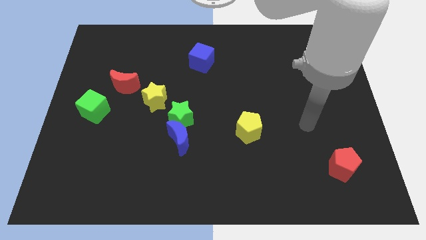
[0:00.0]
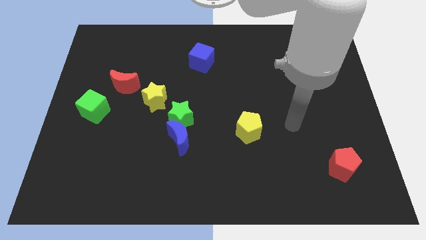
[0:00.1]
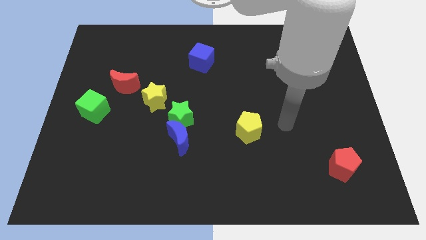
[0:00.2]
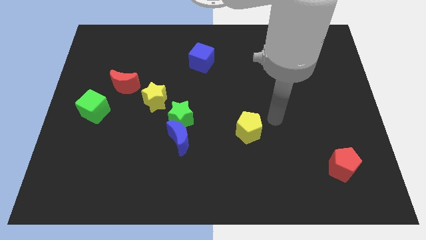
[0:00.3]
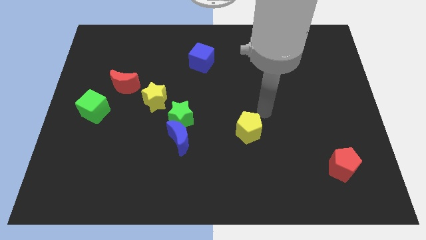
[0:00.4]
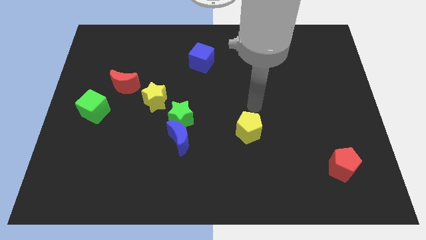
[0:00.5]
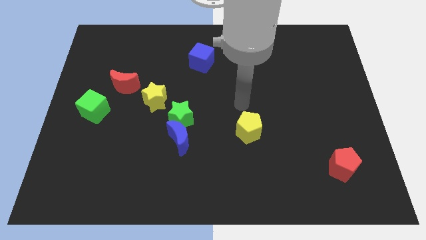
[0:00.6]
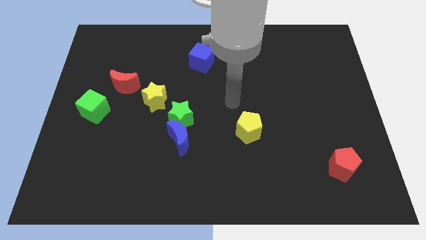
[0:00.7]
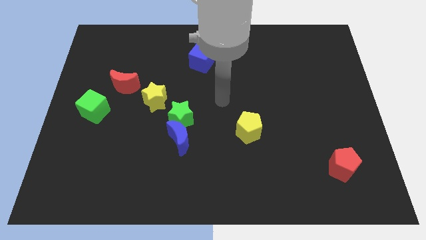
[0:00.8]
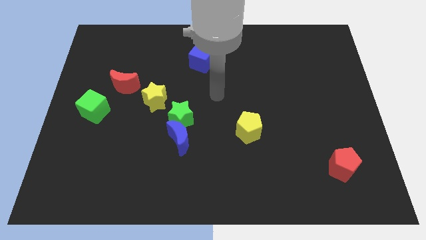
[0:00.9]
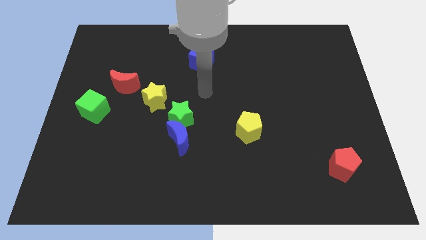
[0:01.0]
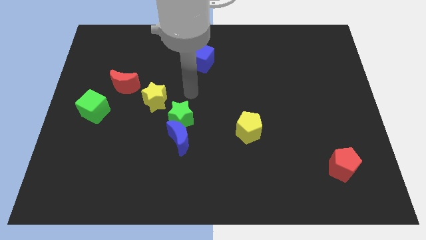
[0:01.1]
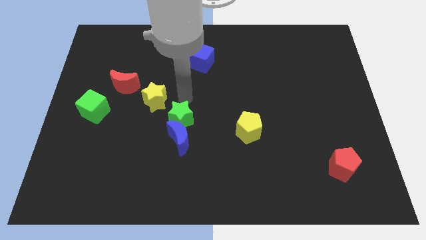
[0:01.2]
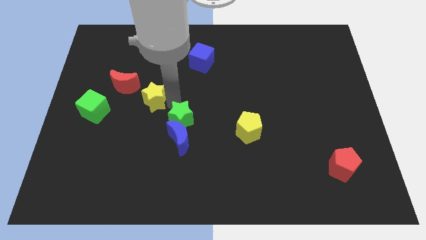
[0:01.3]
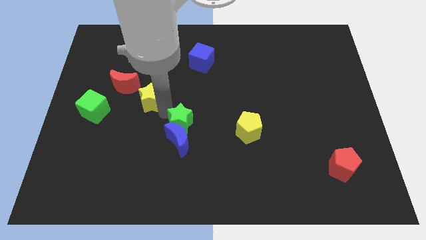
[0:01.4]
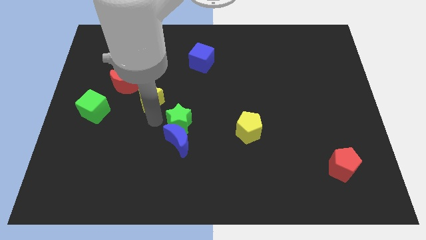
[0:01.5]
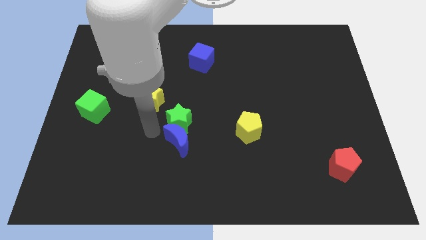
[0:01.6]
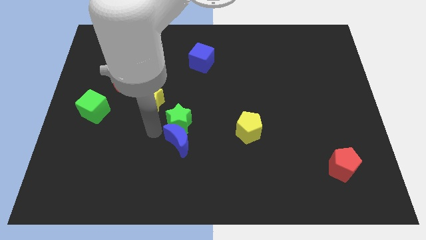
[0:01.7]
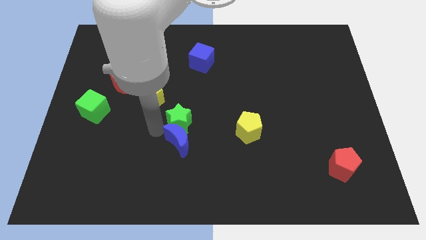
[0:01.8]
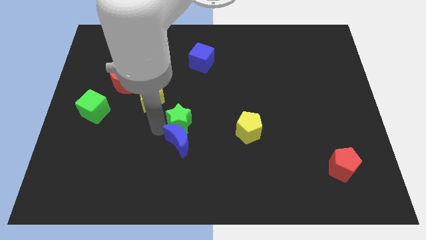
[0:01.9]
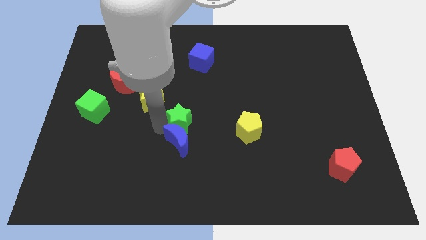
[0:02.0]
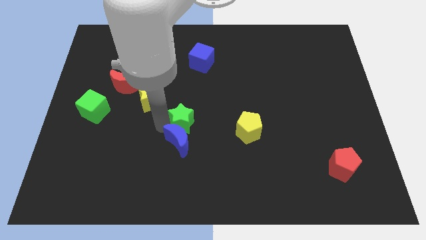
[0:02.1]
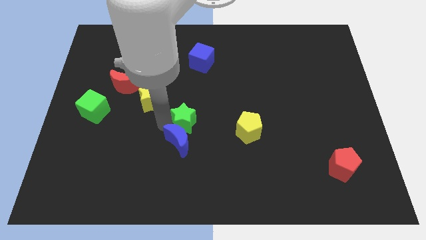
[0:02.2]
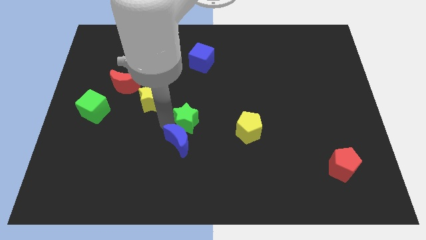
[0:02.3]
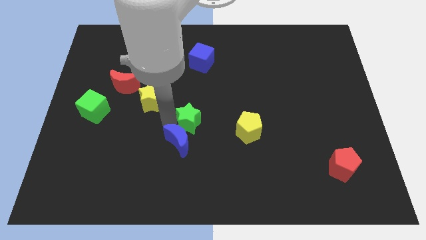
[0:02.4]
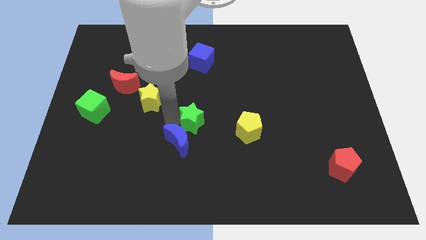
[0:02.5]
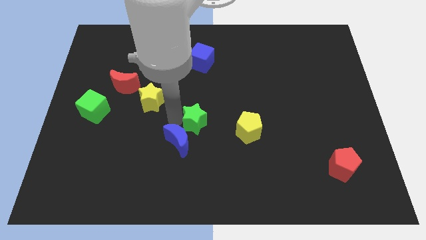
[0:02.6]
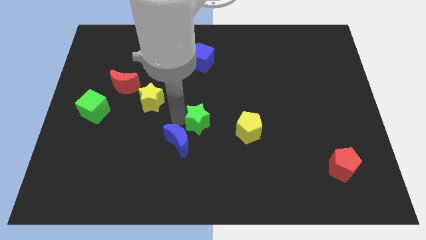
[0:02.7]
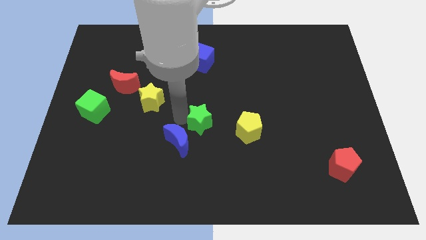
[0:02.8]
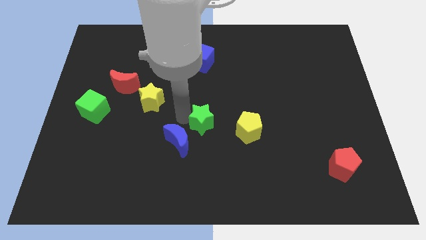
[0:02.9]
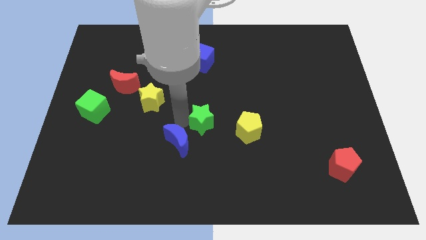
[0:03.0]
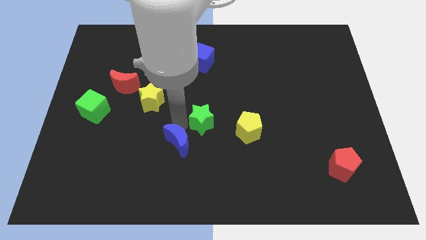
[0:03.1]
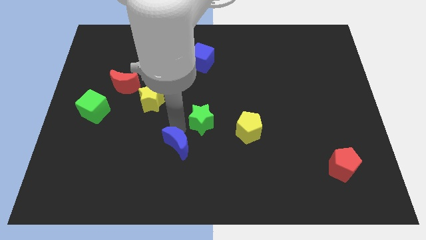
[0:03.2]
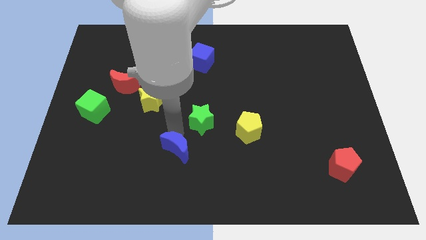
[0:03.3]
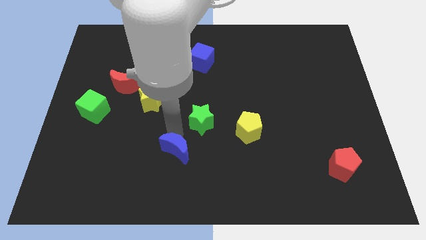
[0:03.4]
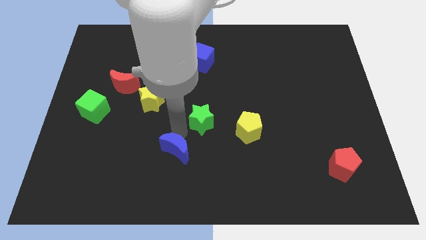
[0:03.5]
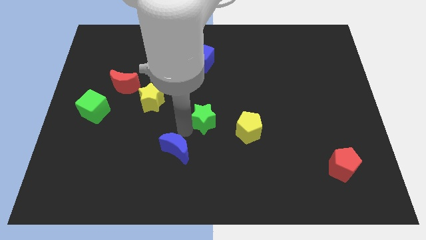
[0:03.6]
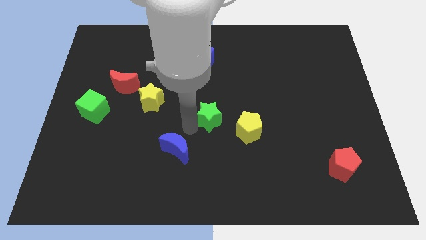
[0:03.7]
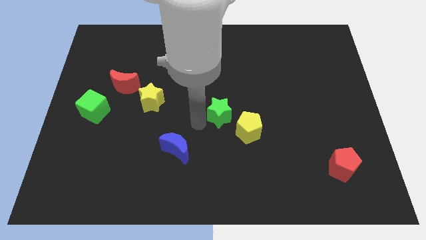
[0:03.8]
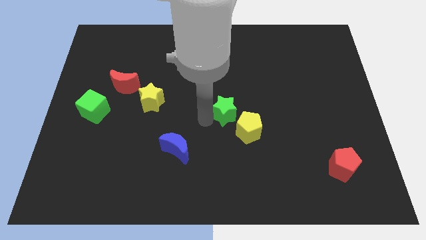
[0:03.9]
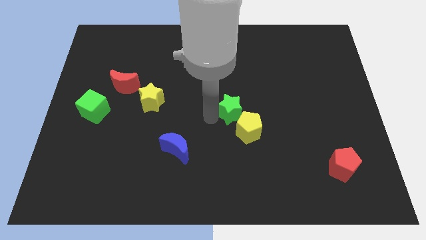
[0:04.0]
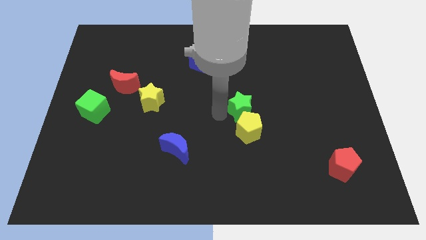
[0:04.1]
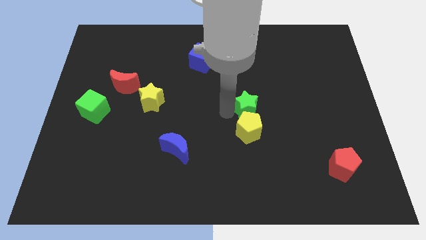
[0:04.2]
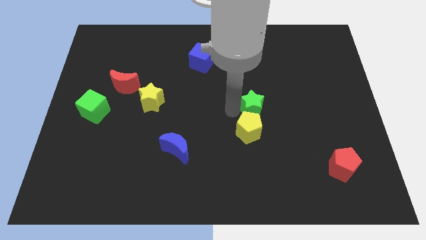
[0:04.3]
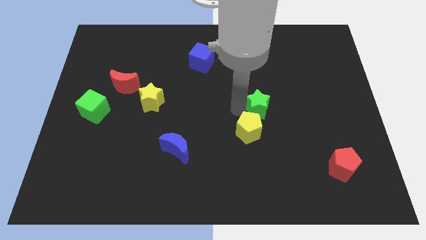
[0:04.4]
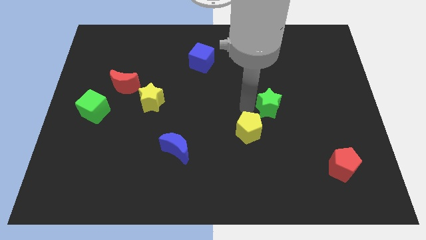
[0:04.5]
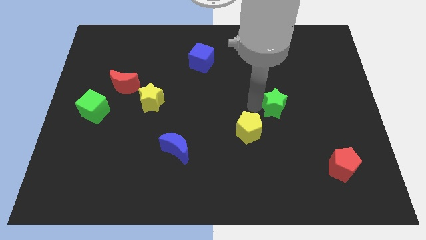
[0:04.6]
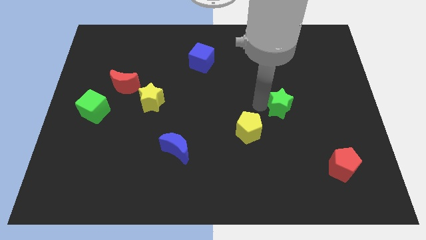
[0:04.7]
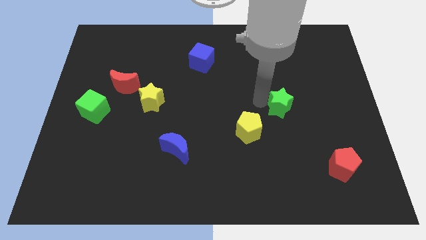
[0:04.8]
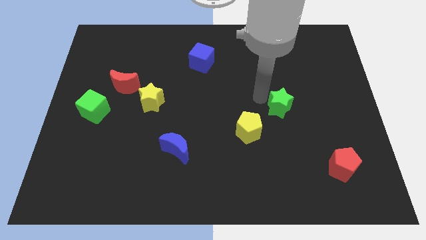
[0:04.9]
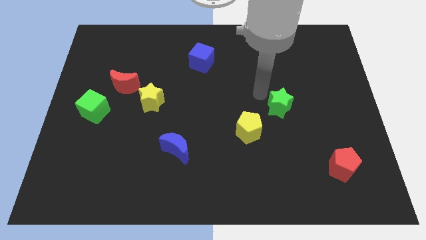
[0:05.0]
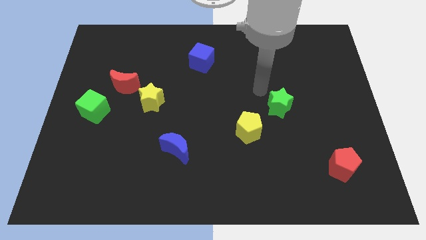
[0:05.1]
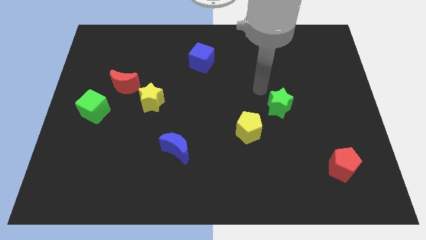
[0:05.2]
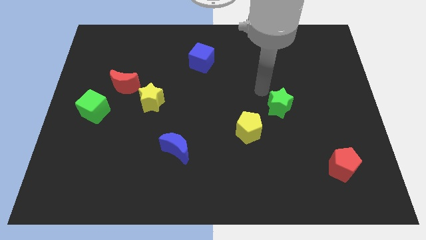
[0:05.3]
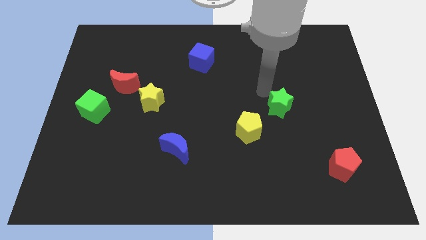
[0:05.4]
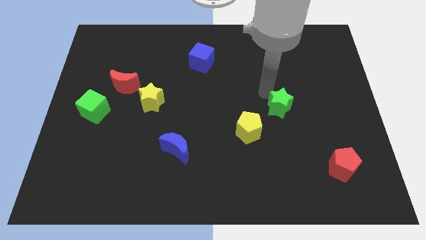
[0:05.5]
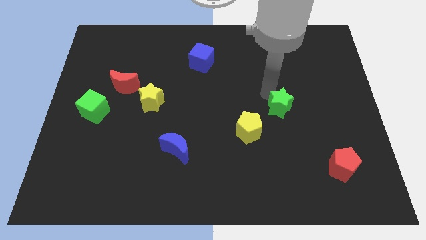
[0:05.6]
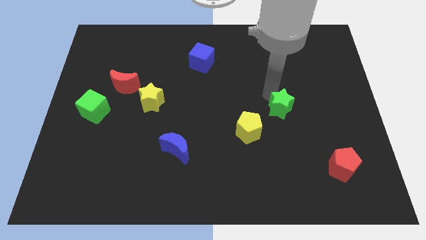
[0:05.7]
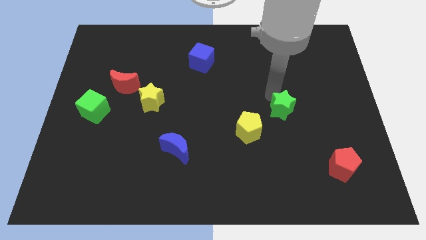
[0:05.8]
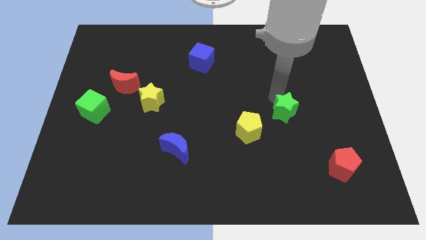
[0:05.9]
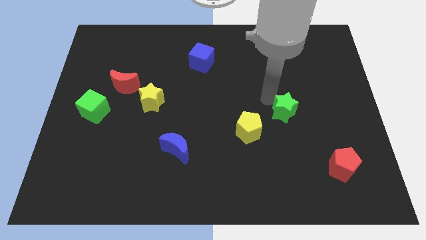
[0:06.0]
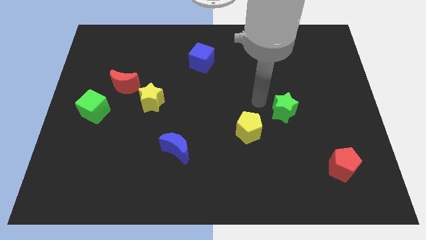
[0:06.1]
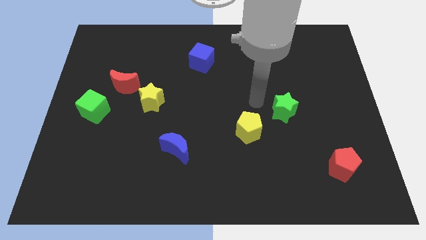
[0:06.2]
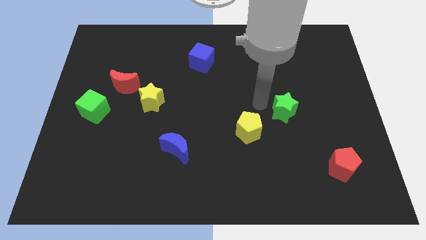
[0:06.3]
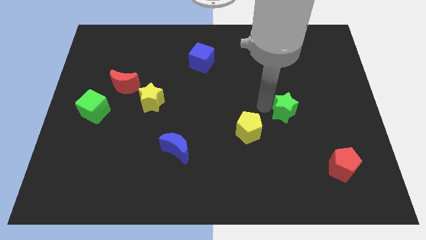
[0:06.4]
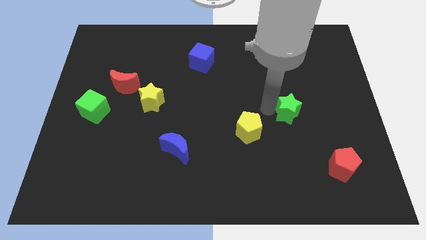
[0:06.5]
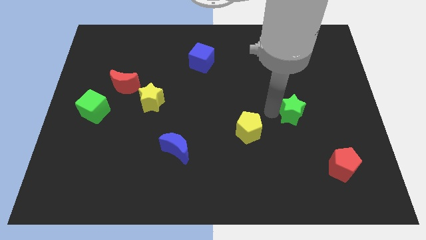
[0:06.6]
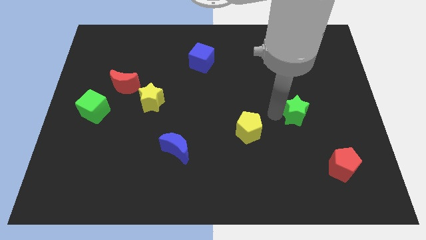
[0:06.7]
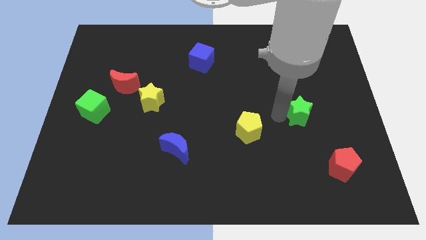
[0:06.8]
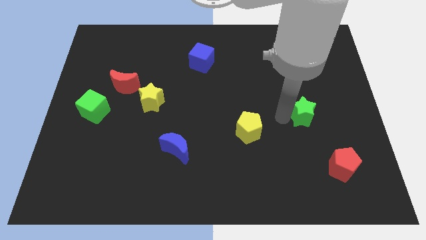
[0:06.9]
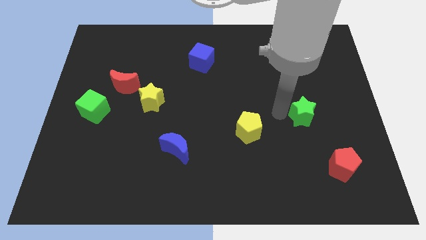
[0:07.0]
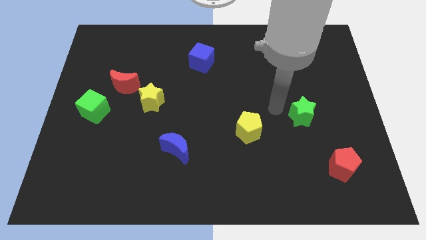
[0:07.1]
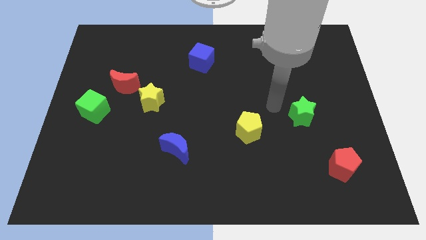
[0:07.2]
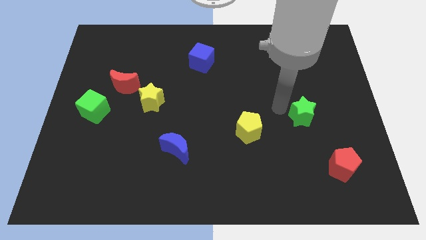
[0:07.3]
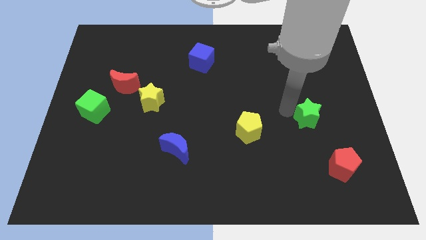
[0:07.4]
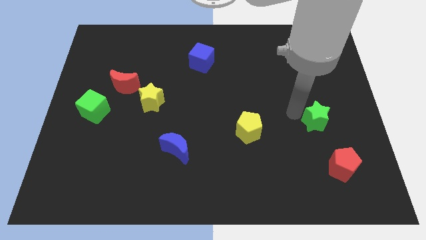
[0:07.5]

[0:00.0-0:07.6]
push the green star above the red pentagon
